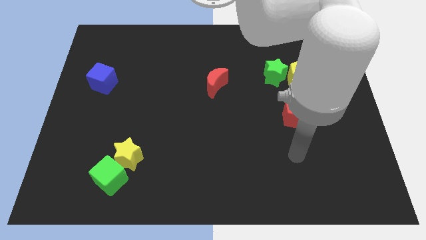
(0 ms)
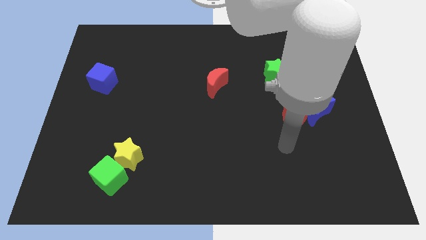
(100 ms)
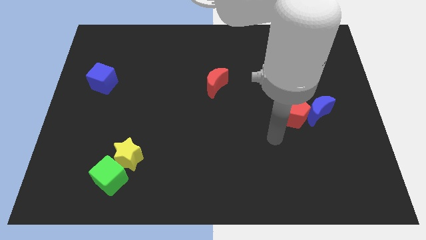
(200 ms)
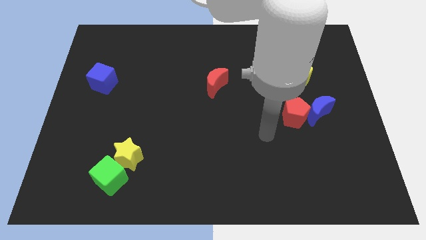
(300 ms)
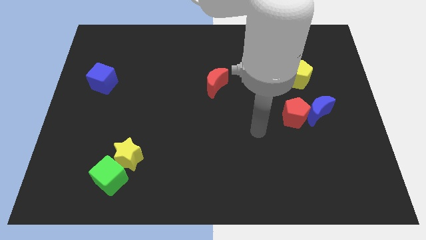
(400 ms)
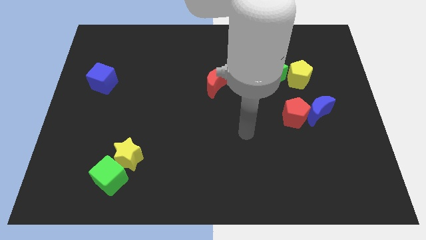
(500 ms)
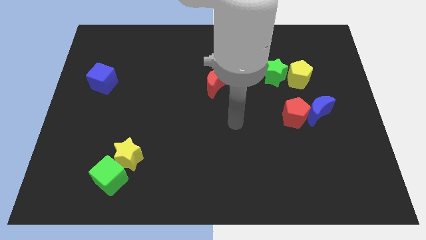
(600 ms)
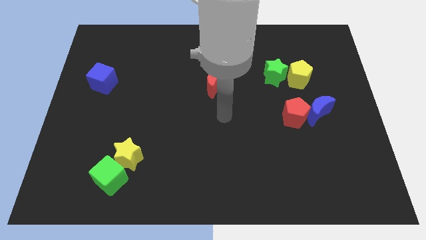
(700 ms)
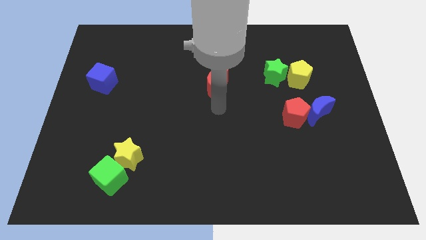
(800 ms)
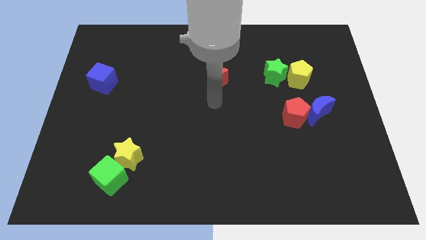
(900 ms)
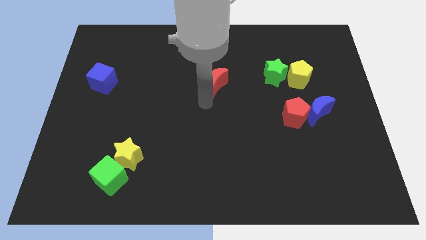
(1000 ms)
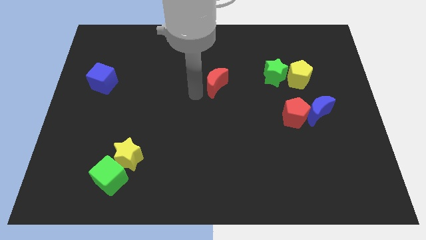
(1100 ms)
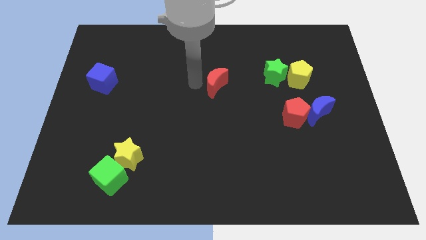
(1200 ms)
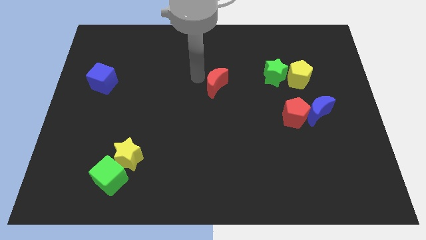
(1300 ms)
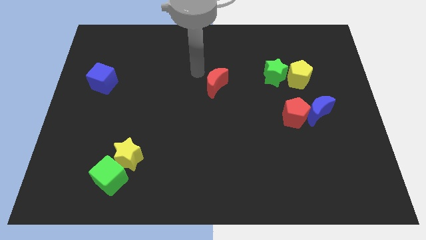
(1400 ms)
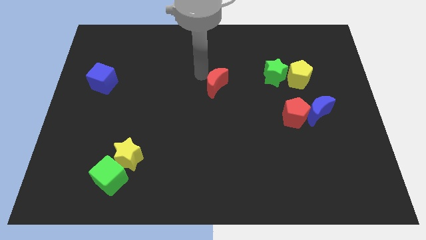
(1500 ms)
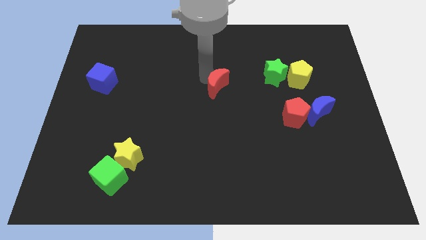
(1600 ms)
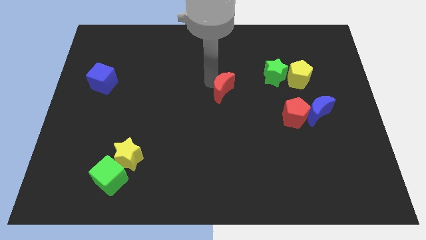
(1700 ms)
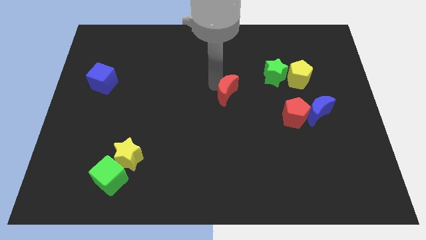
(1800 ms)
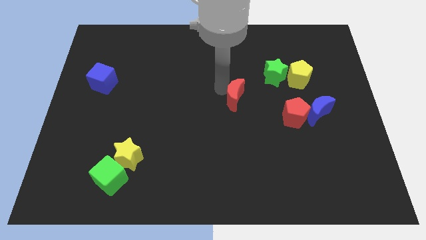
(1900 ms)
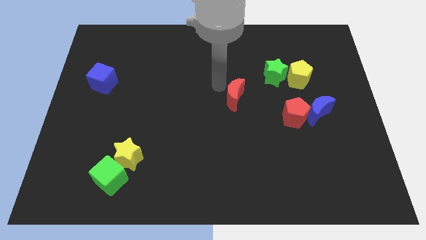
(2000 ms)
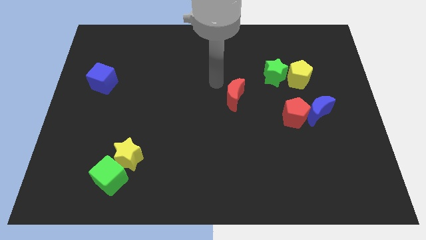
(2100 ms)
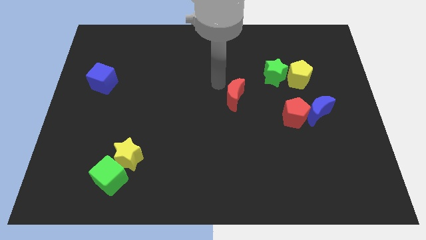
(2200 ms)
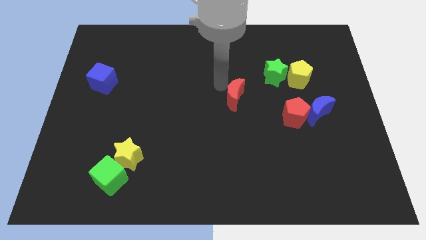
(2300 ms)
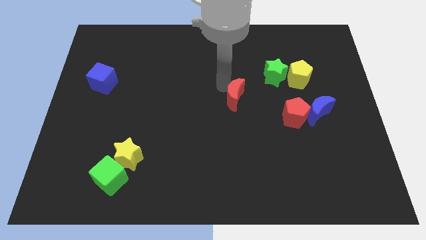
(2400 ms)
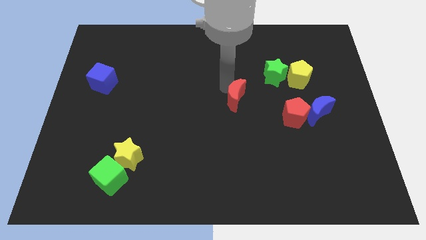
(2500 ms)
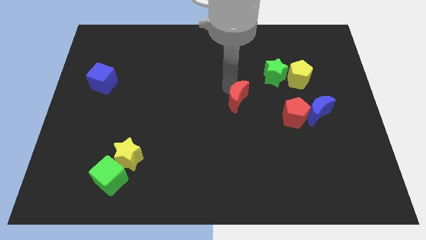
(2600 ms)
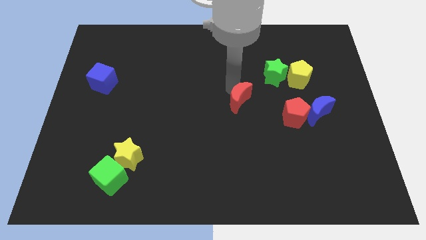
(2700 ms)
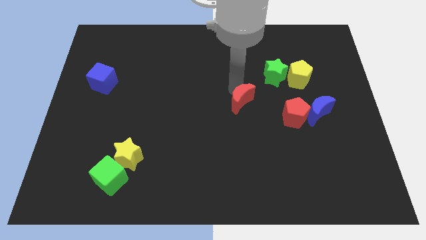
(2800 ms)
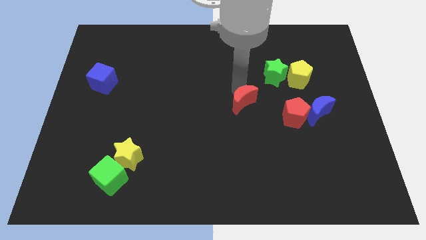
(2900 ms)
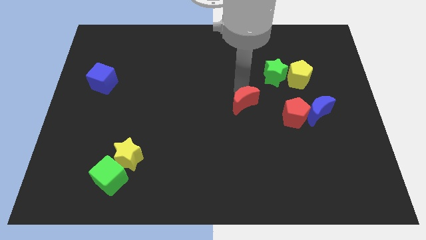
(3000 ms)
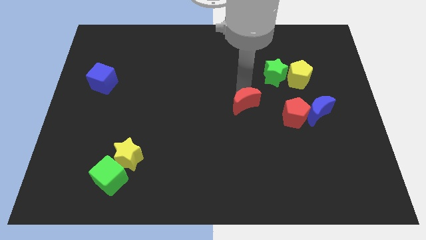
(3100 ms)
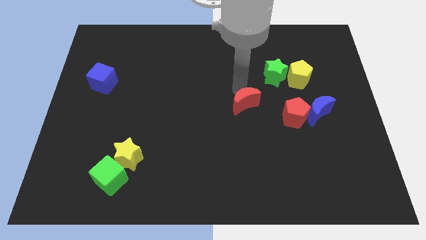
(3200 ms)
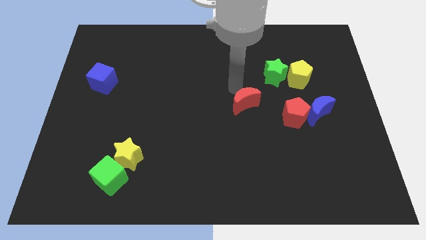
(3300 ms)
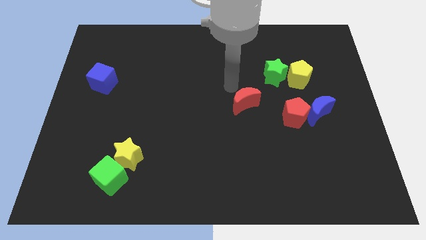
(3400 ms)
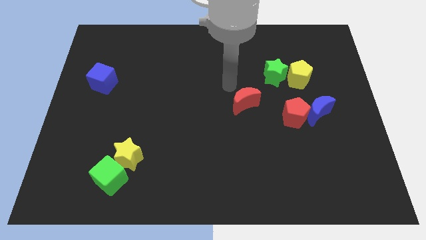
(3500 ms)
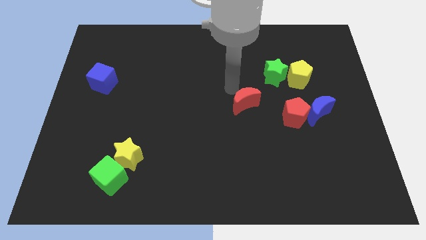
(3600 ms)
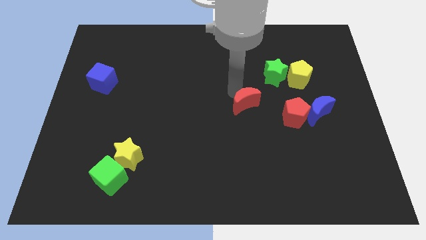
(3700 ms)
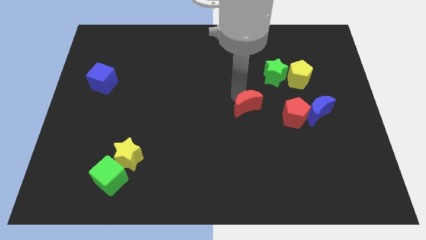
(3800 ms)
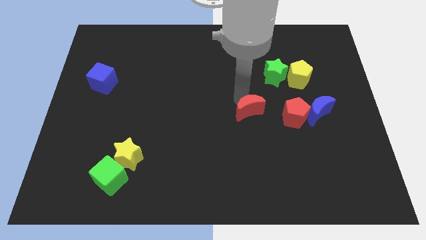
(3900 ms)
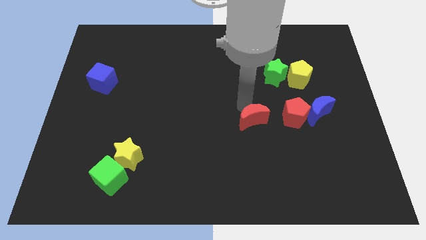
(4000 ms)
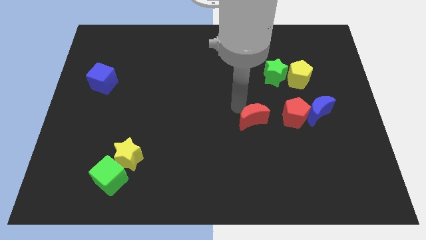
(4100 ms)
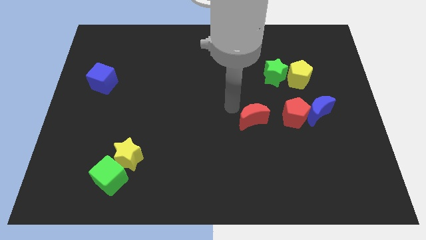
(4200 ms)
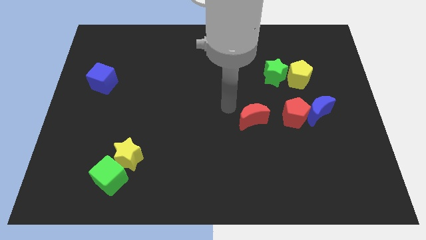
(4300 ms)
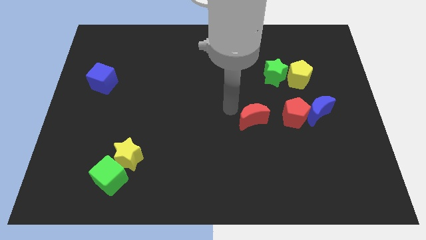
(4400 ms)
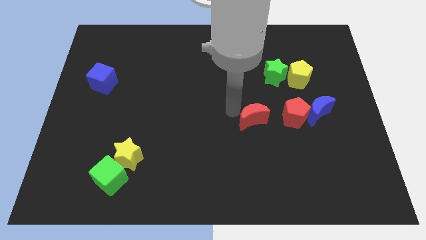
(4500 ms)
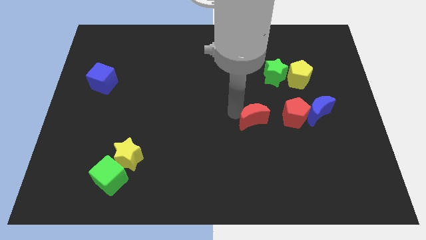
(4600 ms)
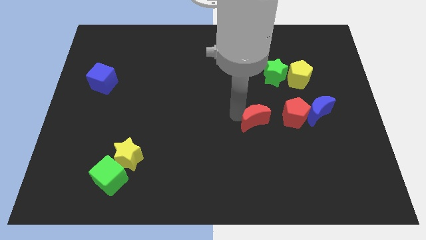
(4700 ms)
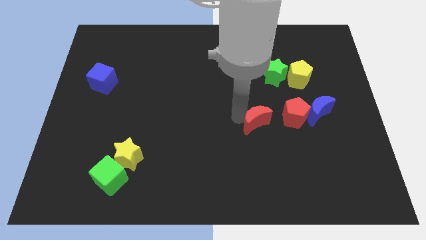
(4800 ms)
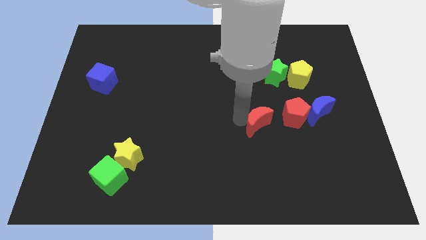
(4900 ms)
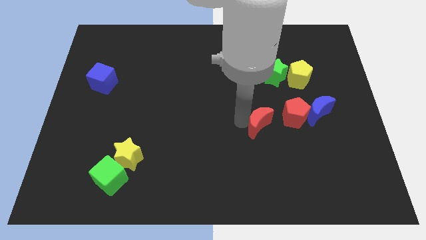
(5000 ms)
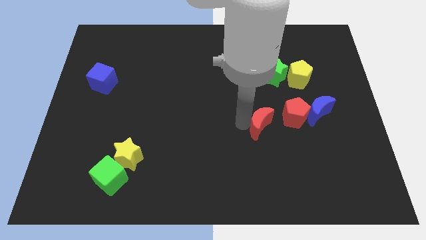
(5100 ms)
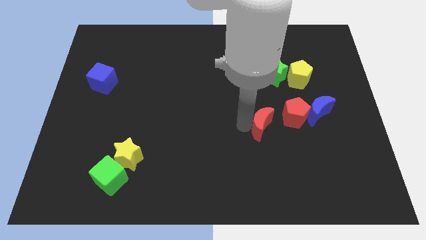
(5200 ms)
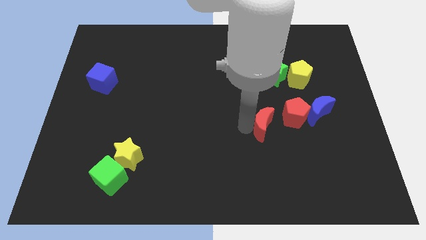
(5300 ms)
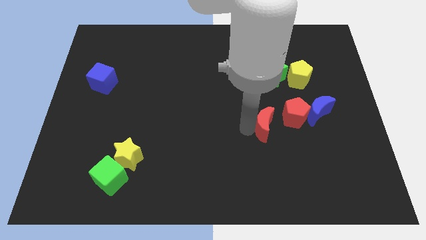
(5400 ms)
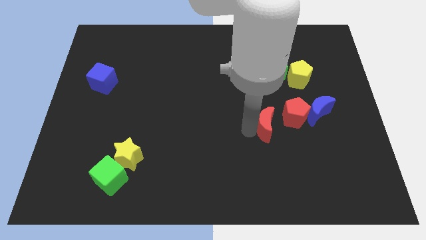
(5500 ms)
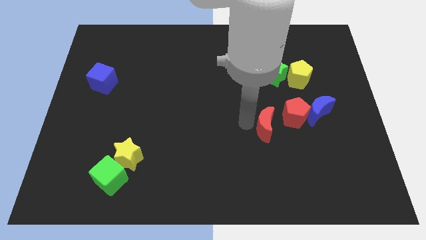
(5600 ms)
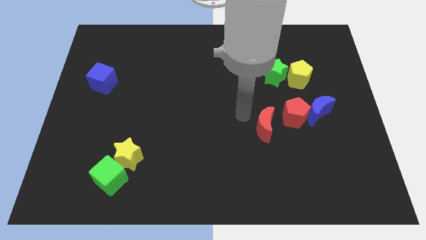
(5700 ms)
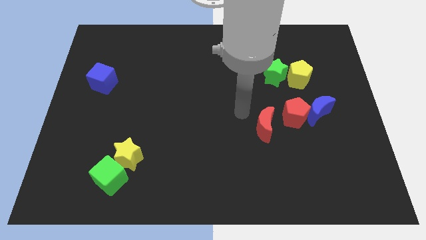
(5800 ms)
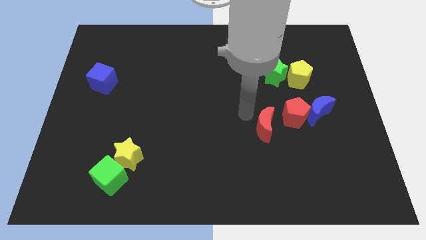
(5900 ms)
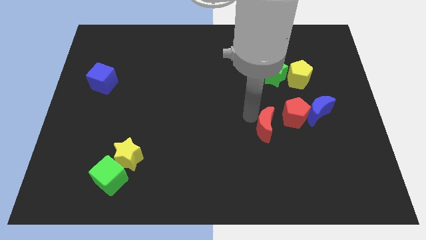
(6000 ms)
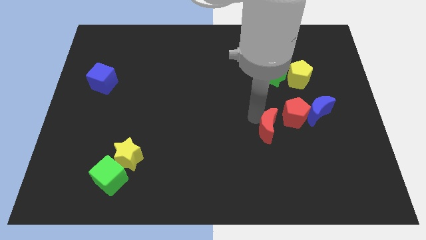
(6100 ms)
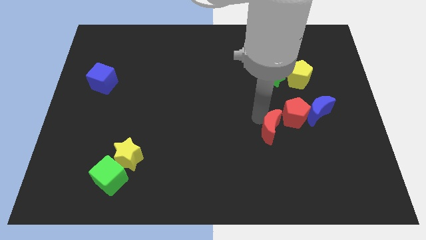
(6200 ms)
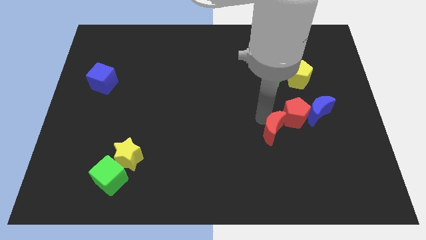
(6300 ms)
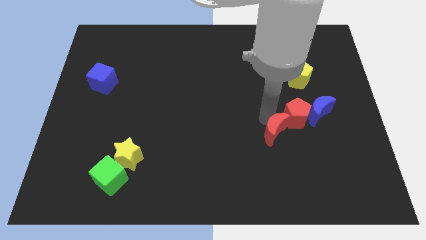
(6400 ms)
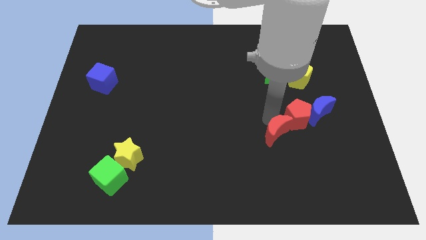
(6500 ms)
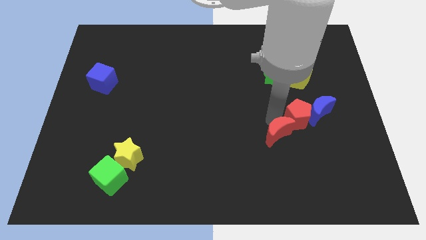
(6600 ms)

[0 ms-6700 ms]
push the red moon down and then to the right

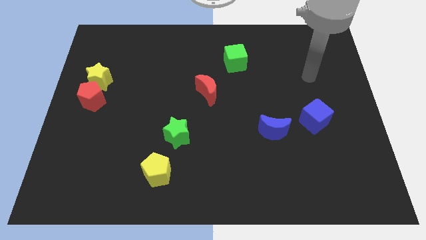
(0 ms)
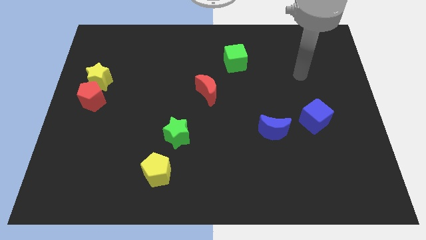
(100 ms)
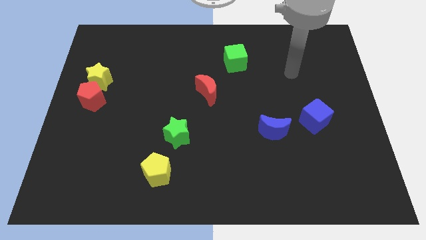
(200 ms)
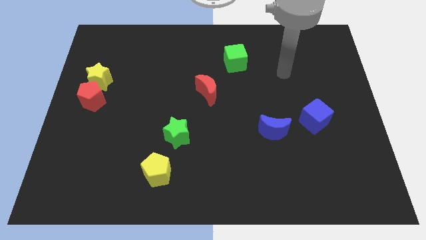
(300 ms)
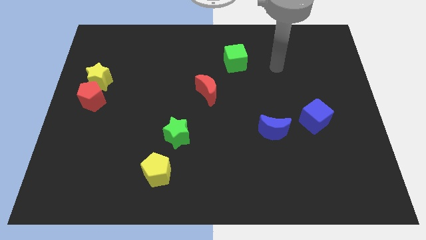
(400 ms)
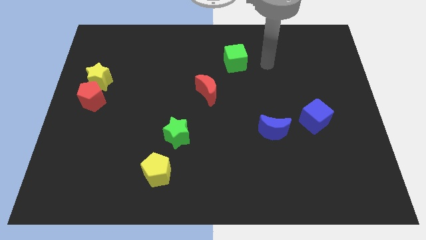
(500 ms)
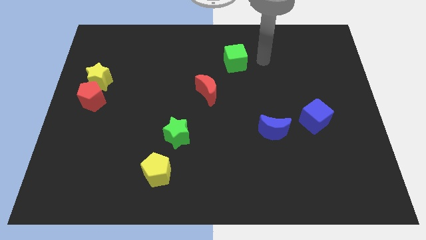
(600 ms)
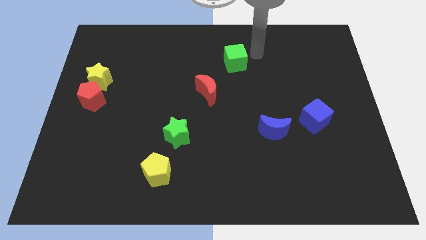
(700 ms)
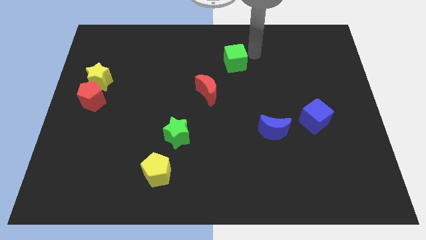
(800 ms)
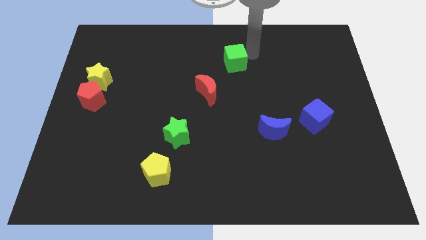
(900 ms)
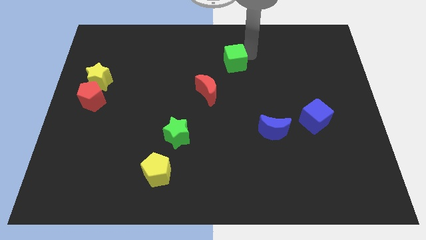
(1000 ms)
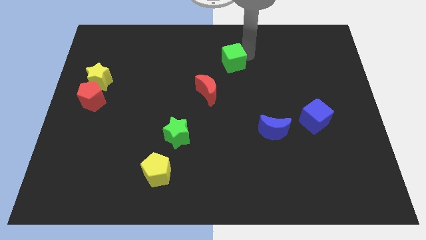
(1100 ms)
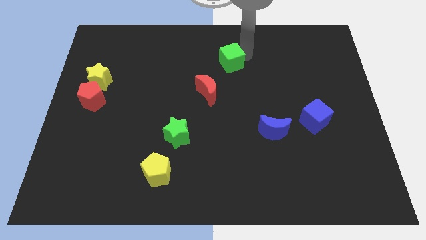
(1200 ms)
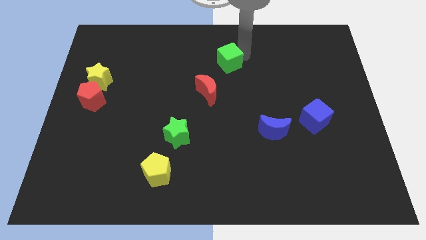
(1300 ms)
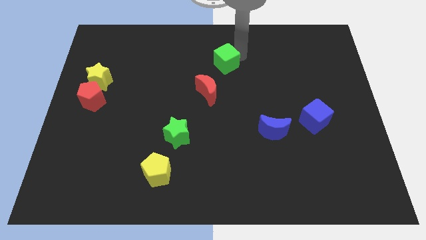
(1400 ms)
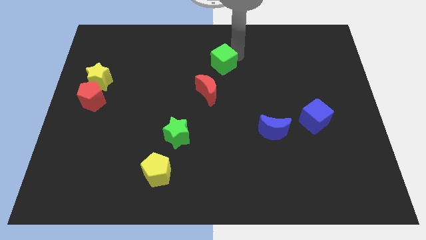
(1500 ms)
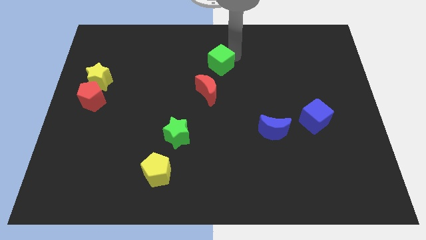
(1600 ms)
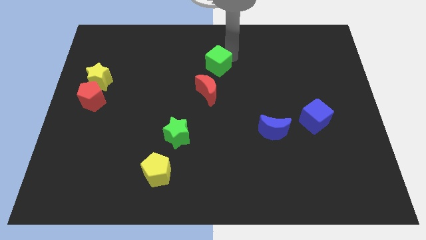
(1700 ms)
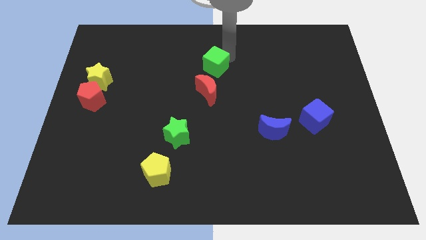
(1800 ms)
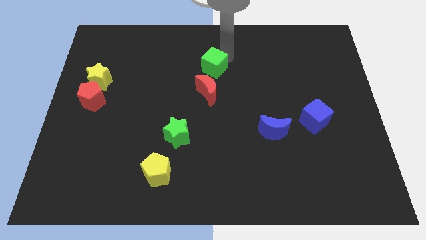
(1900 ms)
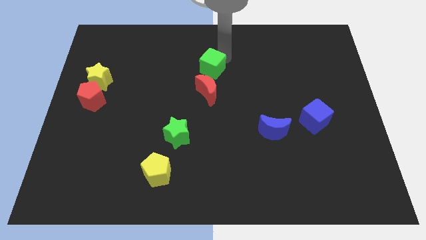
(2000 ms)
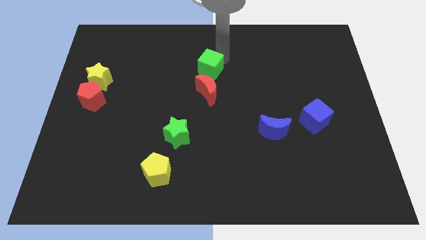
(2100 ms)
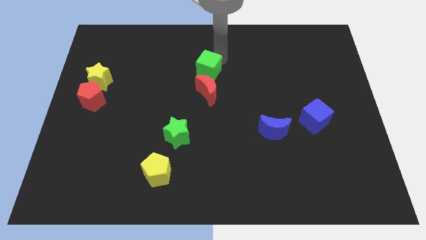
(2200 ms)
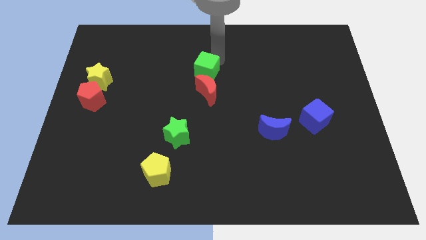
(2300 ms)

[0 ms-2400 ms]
slide the green cube diagonally downwards and to the left a little bit
